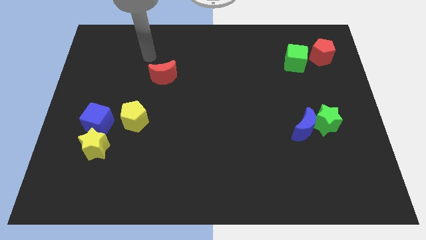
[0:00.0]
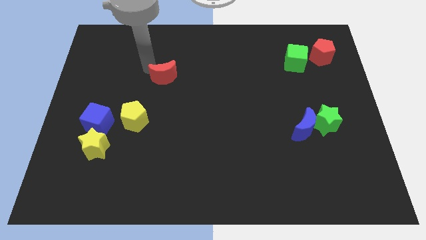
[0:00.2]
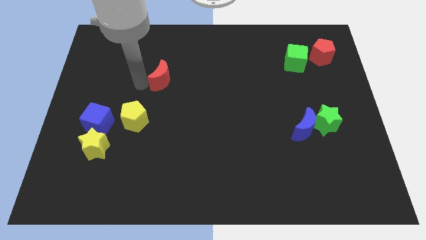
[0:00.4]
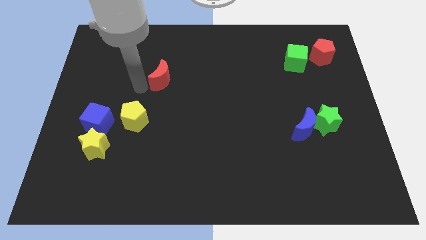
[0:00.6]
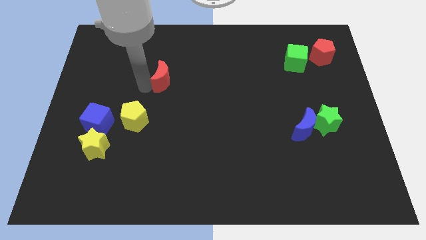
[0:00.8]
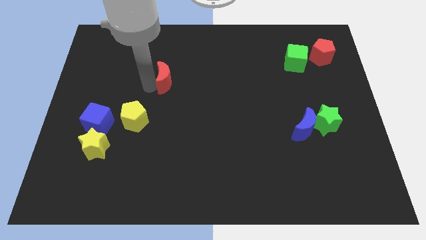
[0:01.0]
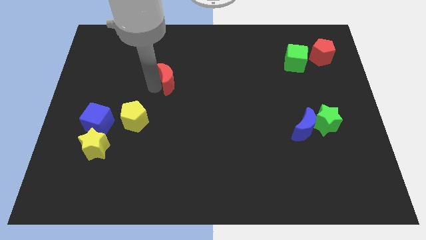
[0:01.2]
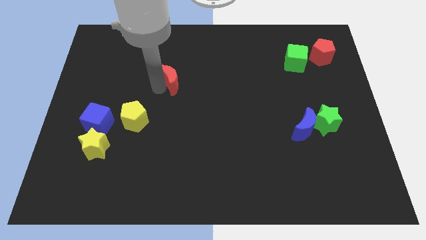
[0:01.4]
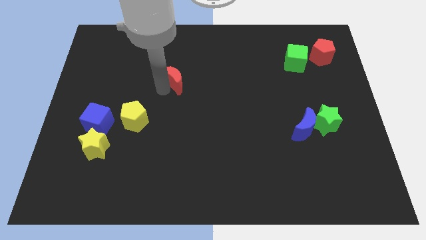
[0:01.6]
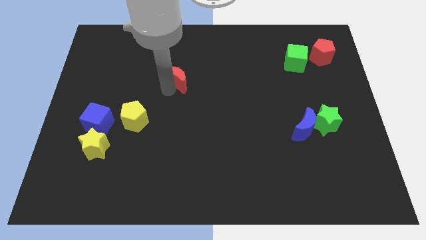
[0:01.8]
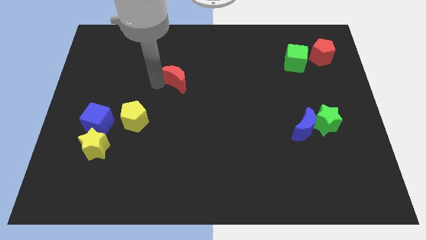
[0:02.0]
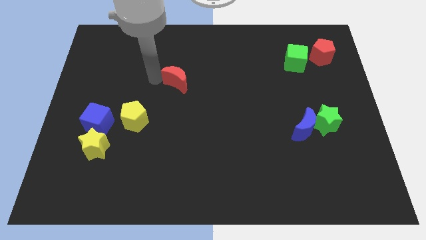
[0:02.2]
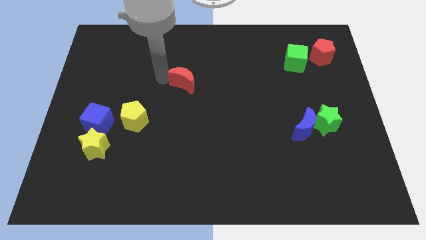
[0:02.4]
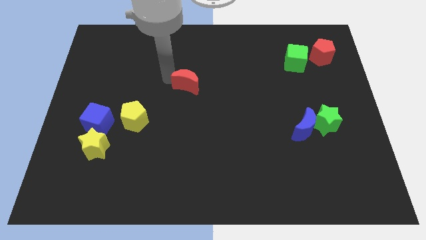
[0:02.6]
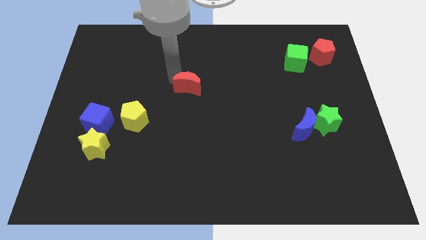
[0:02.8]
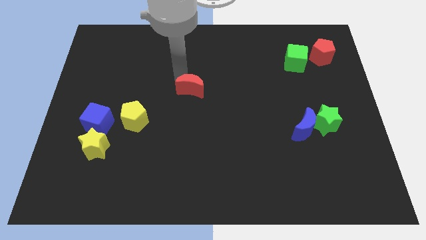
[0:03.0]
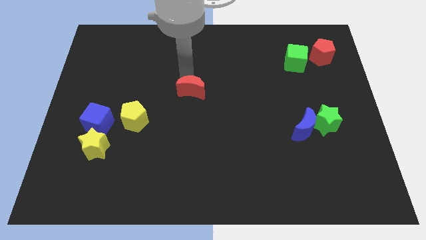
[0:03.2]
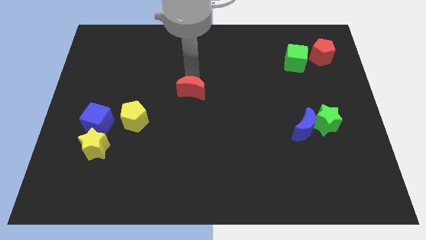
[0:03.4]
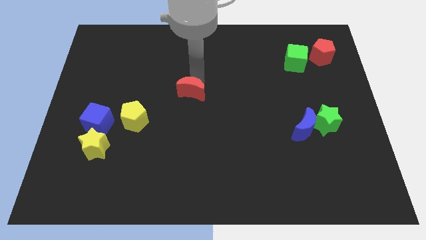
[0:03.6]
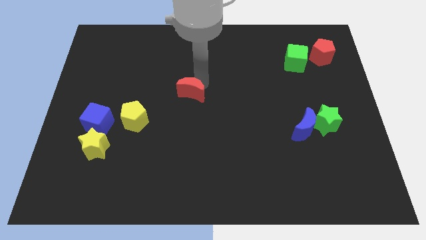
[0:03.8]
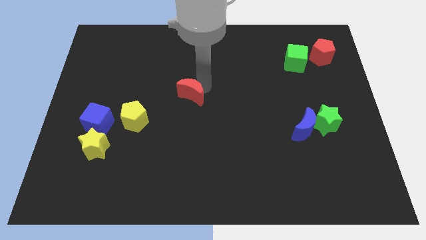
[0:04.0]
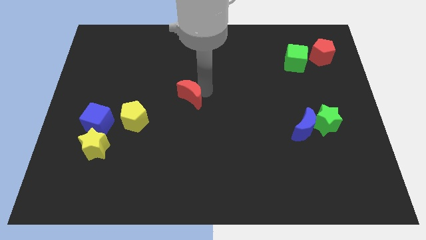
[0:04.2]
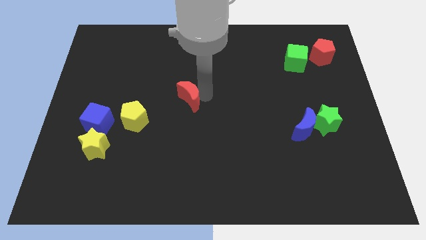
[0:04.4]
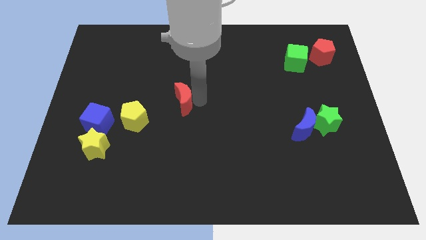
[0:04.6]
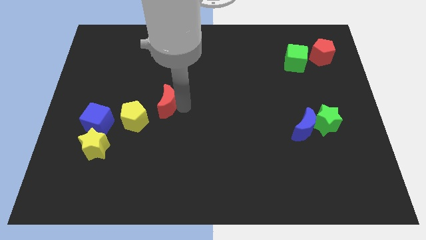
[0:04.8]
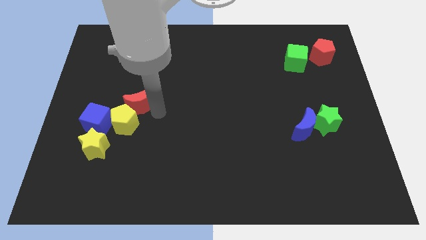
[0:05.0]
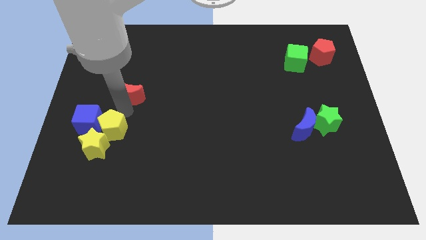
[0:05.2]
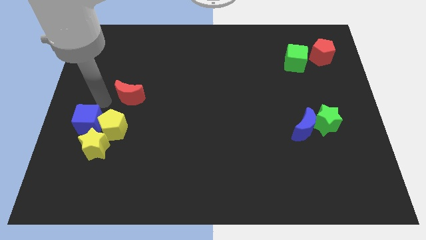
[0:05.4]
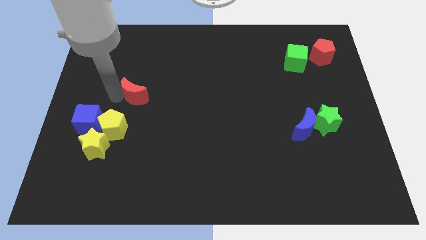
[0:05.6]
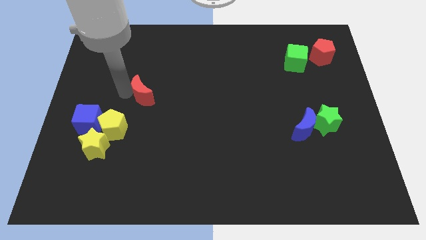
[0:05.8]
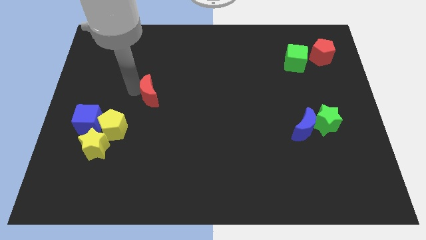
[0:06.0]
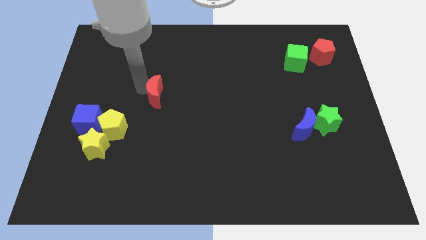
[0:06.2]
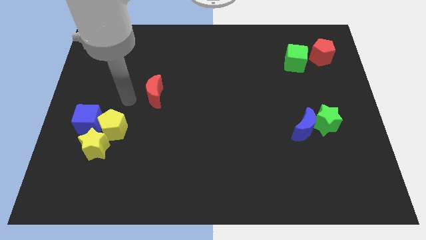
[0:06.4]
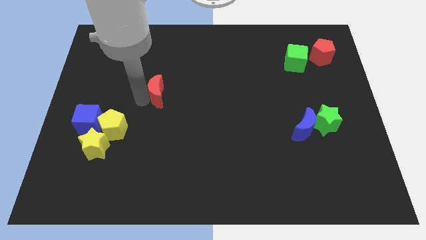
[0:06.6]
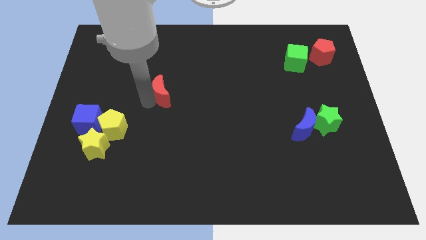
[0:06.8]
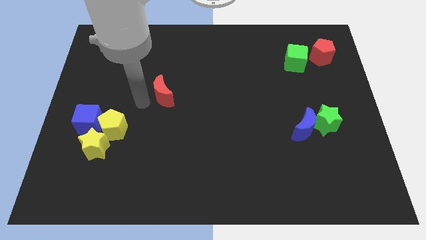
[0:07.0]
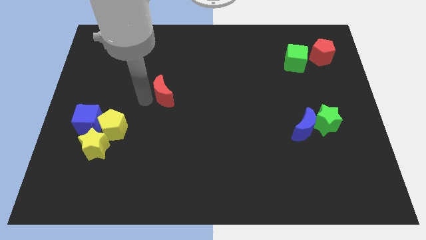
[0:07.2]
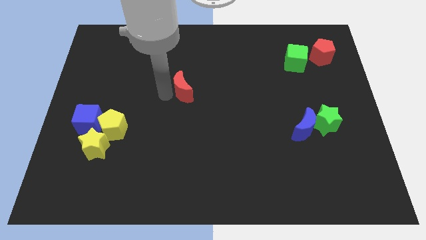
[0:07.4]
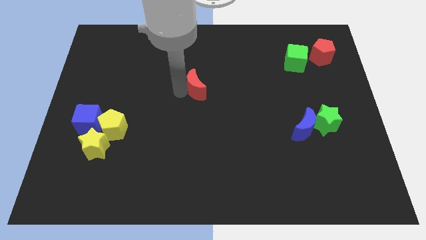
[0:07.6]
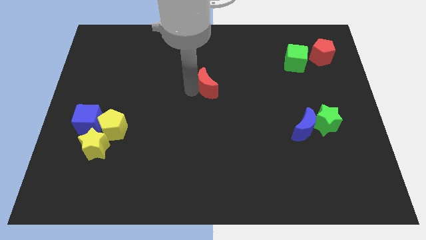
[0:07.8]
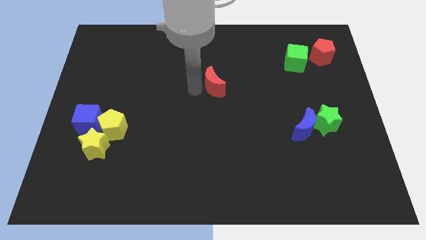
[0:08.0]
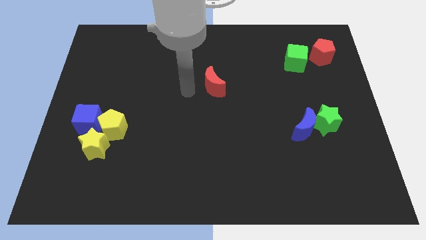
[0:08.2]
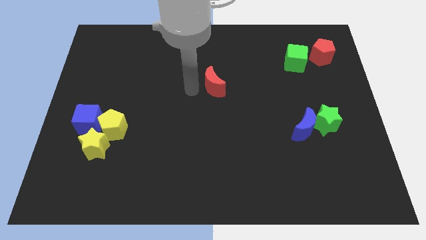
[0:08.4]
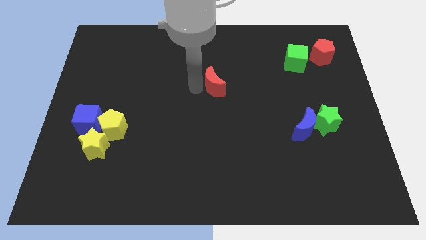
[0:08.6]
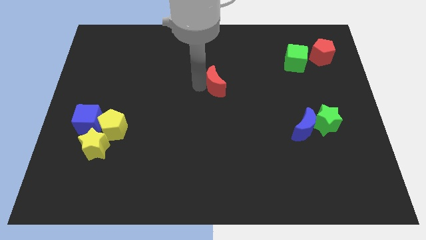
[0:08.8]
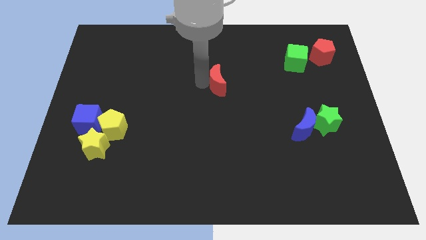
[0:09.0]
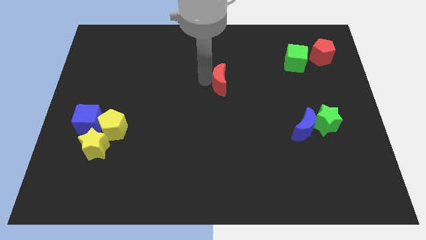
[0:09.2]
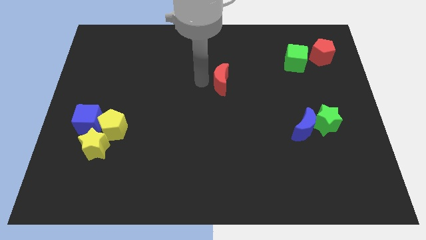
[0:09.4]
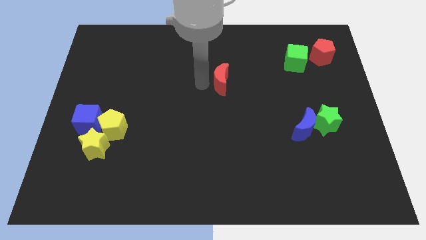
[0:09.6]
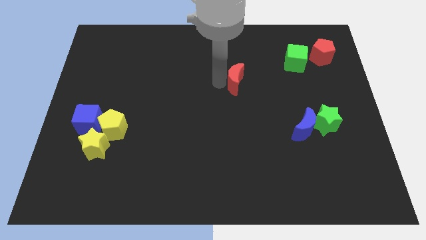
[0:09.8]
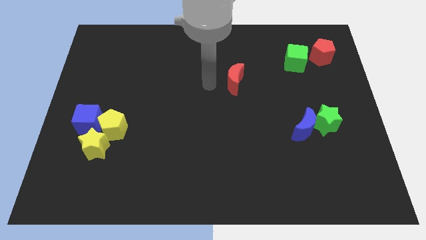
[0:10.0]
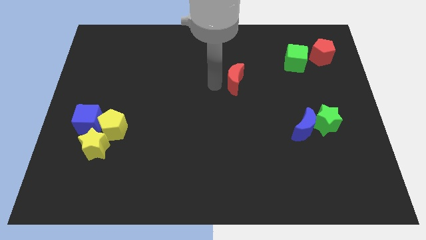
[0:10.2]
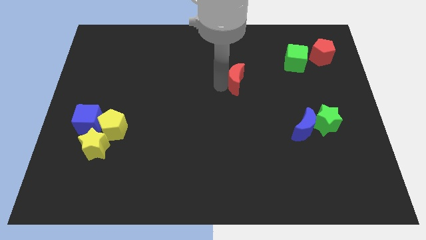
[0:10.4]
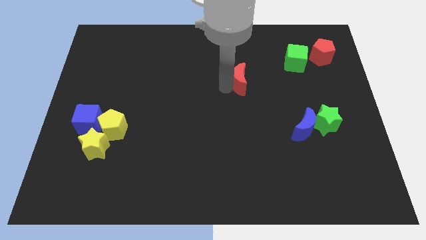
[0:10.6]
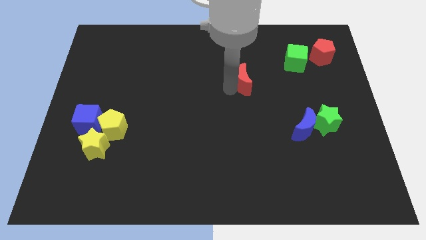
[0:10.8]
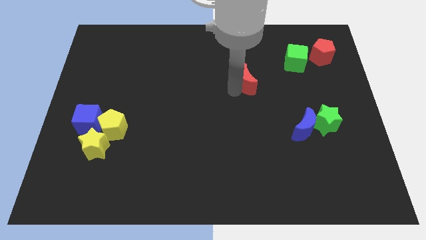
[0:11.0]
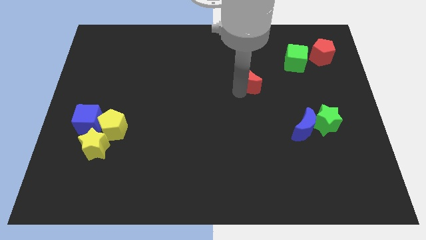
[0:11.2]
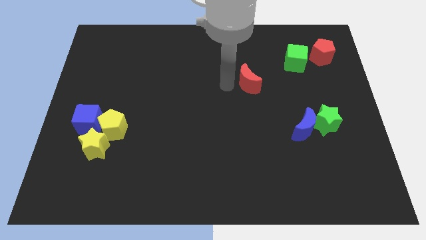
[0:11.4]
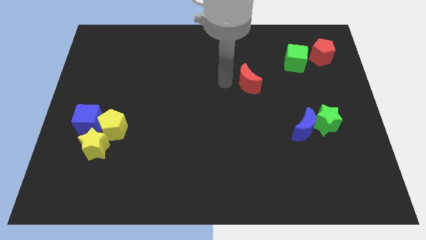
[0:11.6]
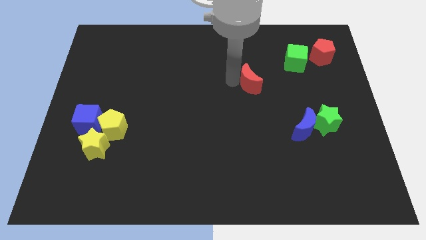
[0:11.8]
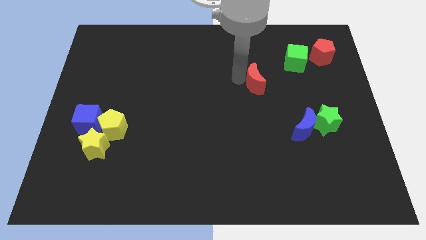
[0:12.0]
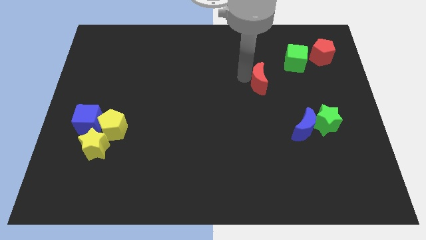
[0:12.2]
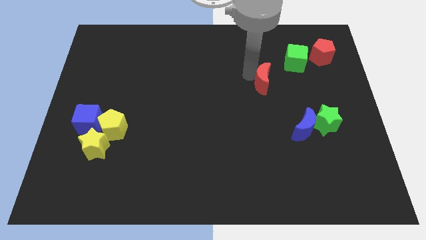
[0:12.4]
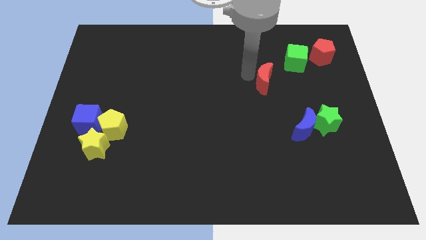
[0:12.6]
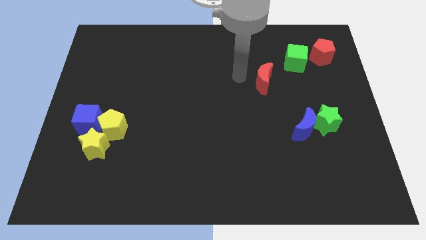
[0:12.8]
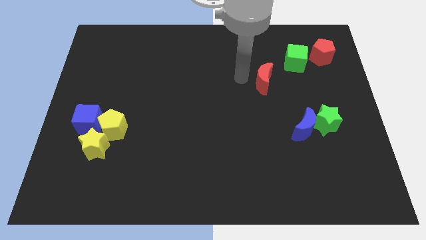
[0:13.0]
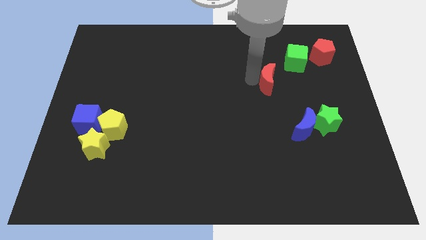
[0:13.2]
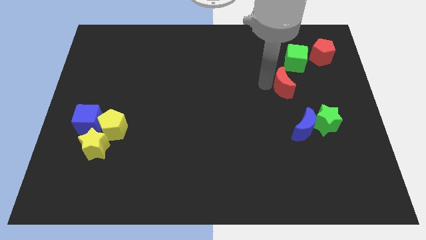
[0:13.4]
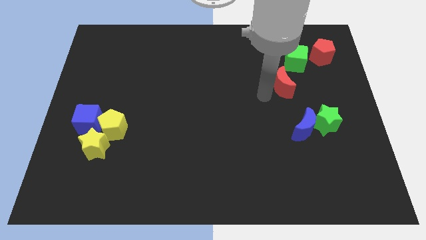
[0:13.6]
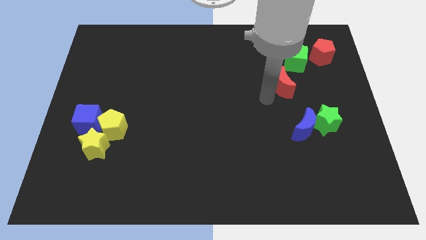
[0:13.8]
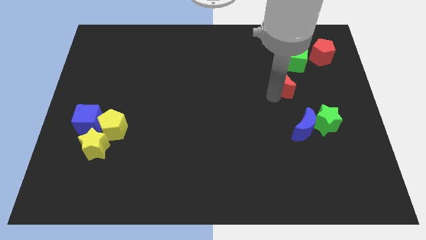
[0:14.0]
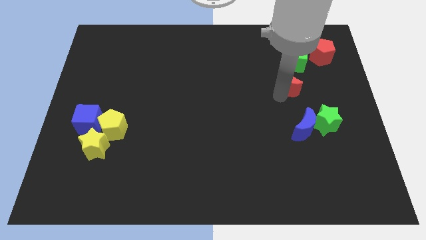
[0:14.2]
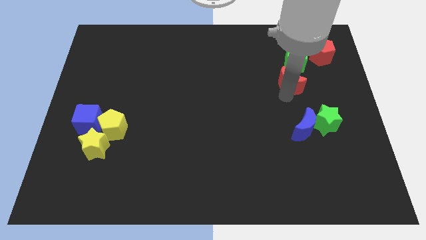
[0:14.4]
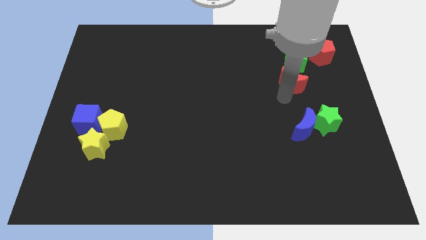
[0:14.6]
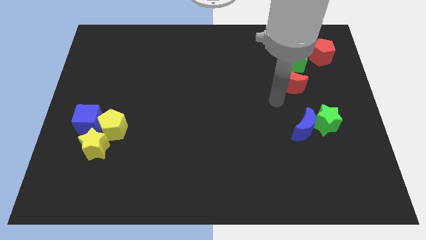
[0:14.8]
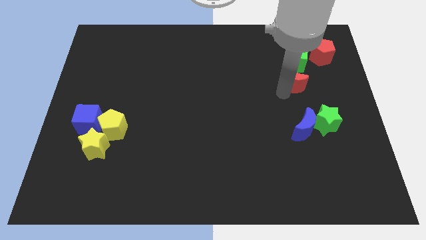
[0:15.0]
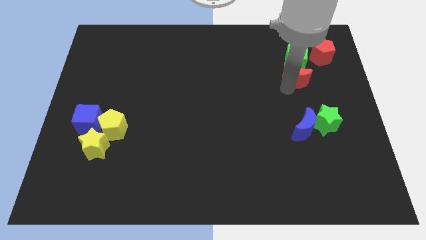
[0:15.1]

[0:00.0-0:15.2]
push the red moon to the bottom left of the red pentagon

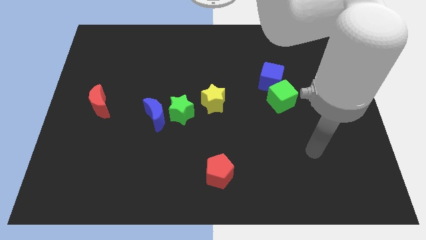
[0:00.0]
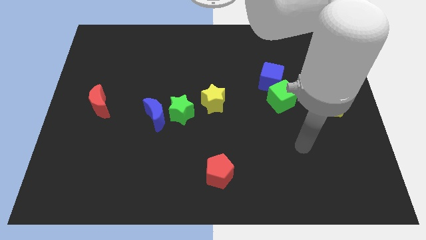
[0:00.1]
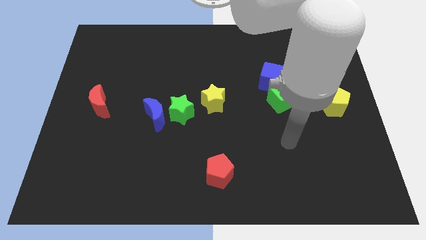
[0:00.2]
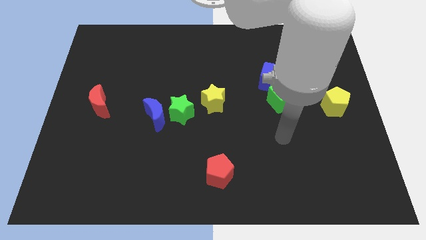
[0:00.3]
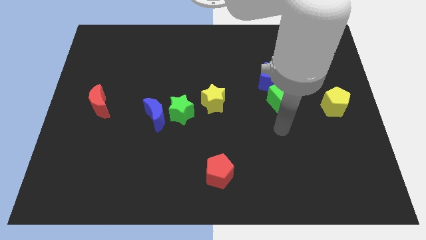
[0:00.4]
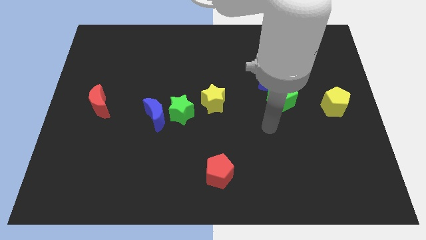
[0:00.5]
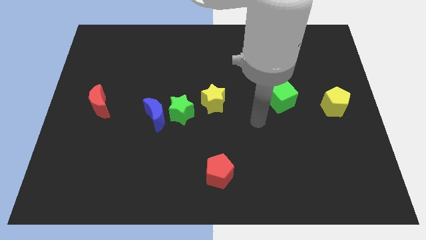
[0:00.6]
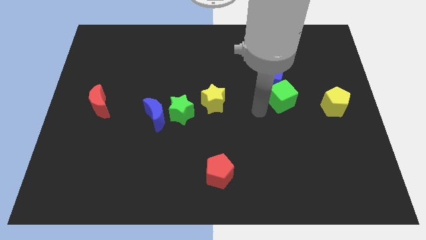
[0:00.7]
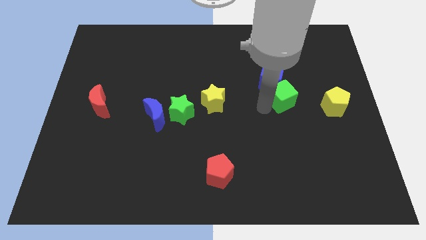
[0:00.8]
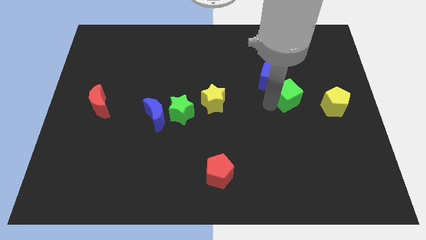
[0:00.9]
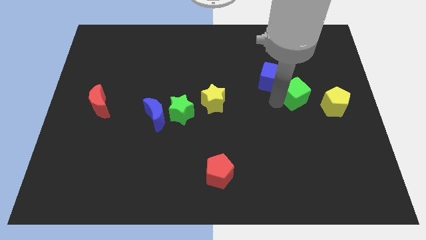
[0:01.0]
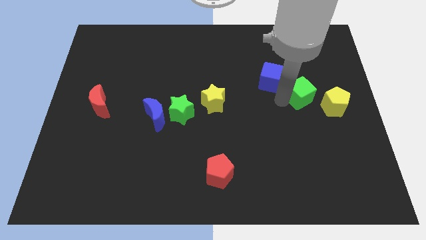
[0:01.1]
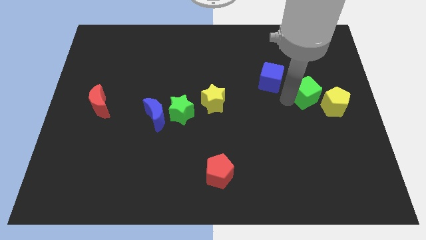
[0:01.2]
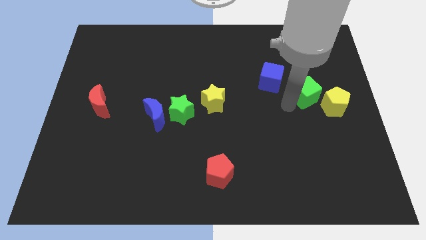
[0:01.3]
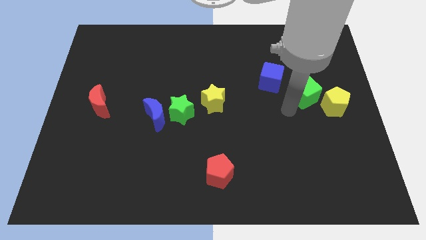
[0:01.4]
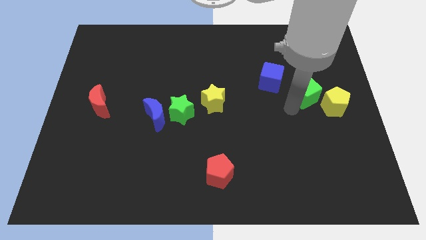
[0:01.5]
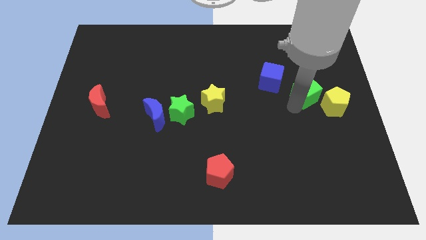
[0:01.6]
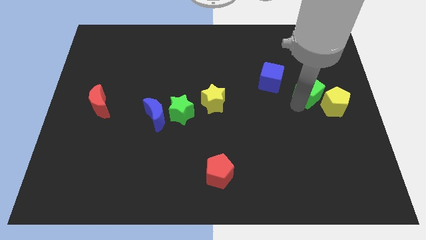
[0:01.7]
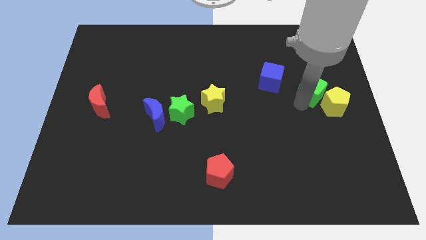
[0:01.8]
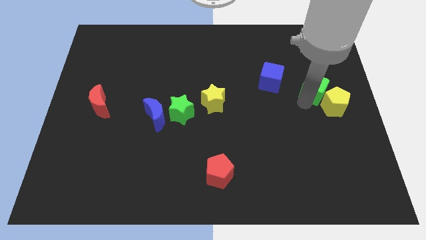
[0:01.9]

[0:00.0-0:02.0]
slide the green cube above the yellow pentagon
